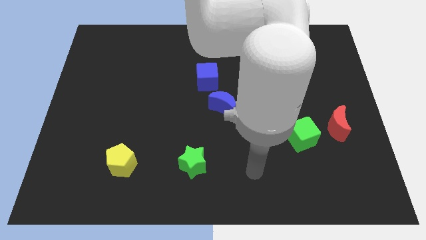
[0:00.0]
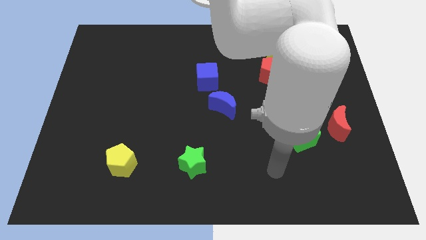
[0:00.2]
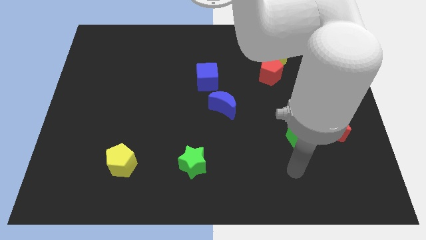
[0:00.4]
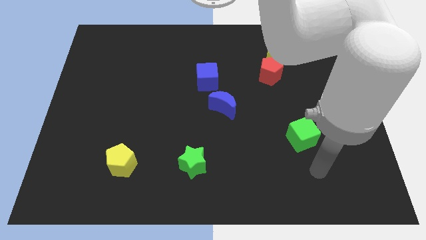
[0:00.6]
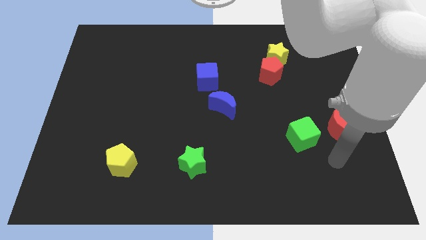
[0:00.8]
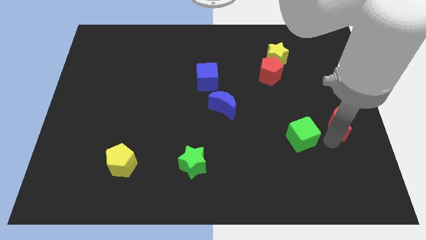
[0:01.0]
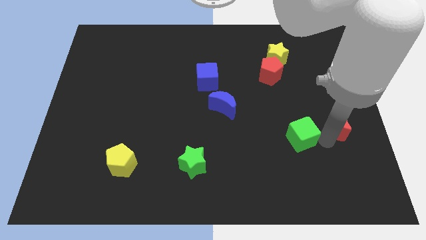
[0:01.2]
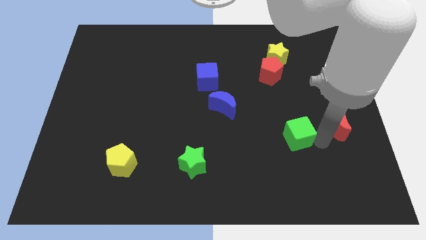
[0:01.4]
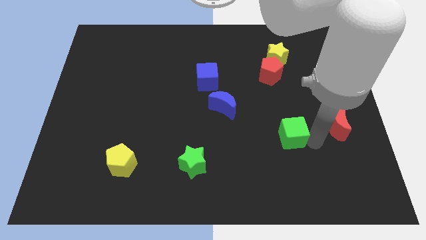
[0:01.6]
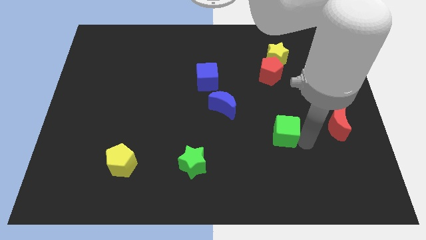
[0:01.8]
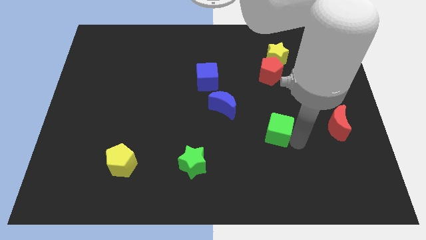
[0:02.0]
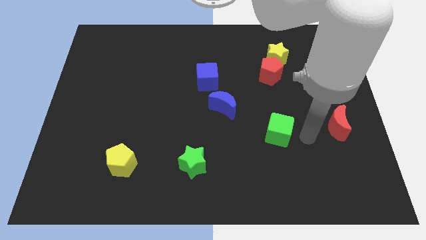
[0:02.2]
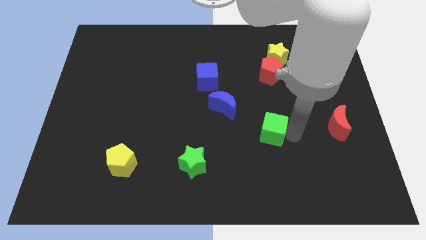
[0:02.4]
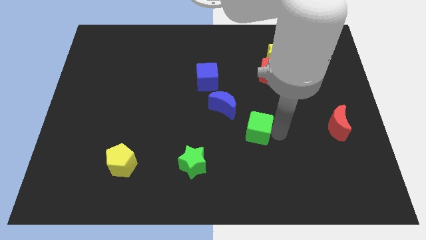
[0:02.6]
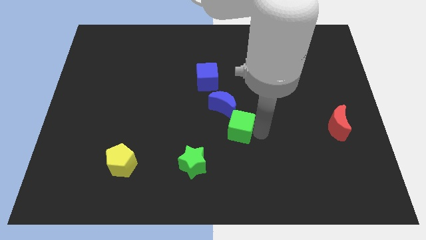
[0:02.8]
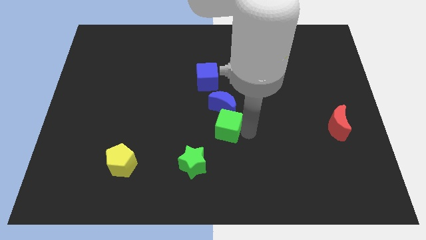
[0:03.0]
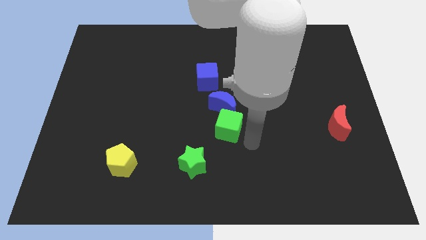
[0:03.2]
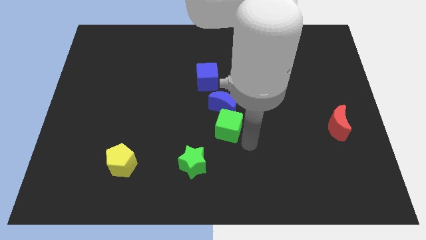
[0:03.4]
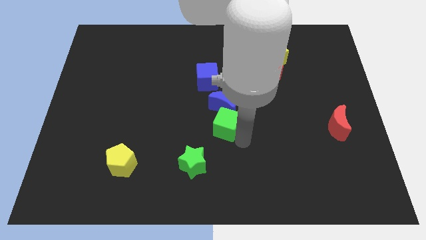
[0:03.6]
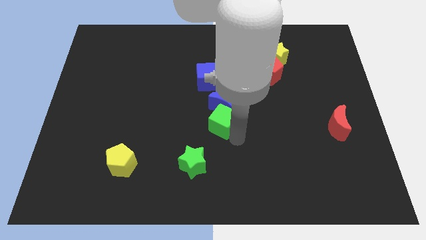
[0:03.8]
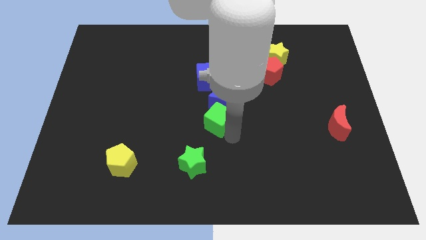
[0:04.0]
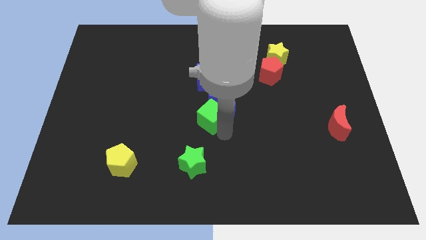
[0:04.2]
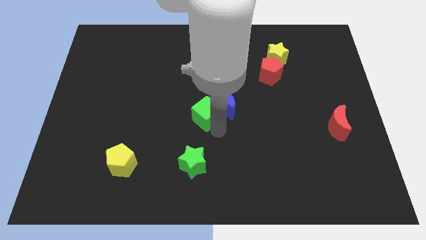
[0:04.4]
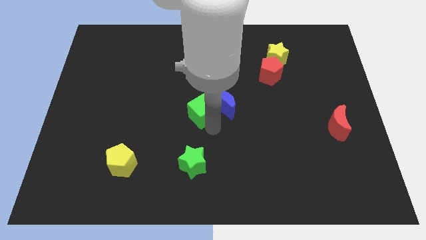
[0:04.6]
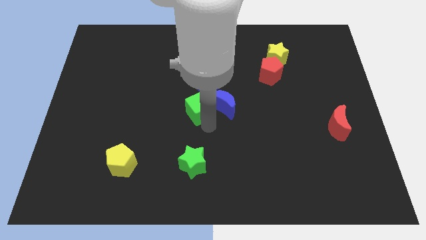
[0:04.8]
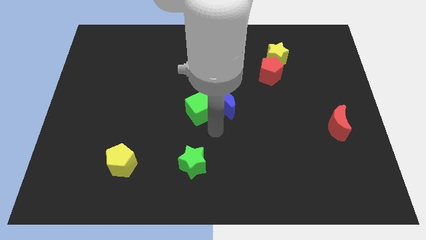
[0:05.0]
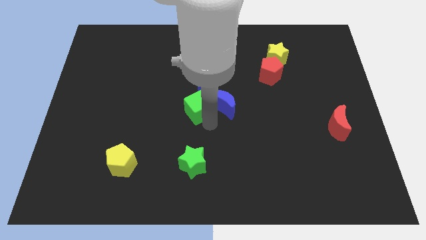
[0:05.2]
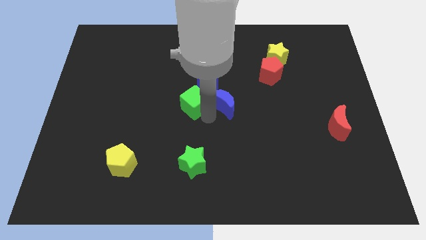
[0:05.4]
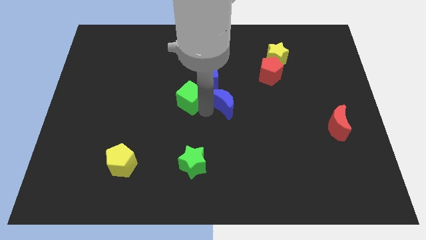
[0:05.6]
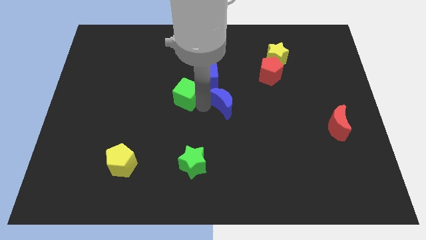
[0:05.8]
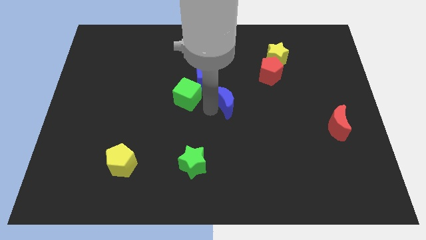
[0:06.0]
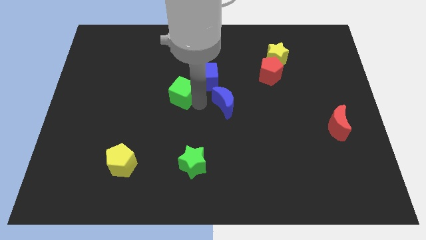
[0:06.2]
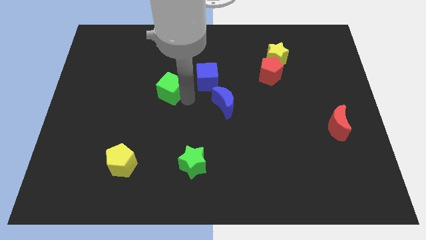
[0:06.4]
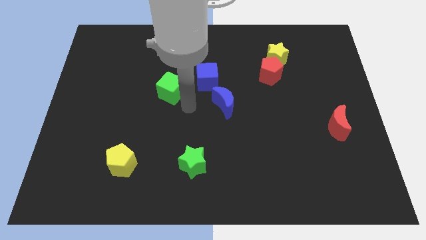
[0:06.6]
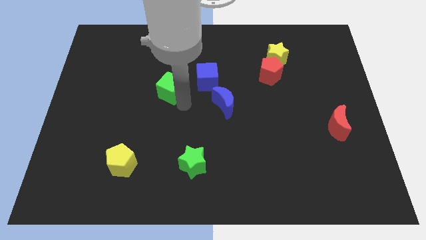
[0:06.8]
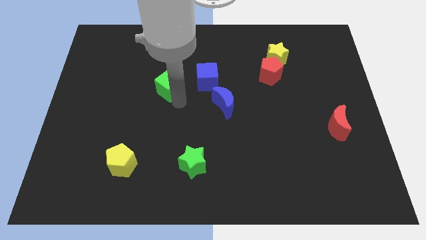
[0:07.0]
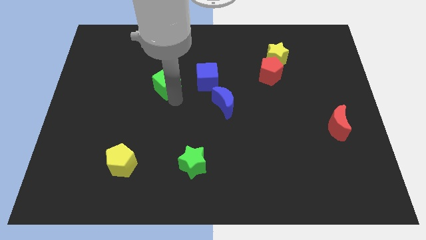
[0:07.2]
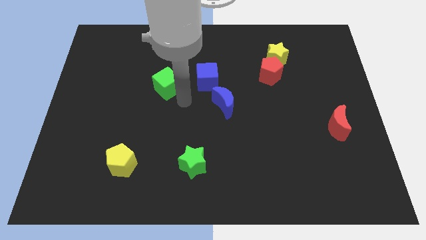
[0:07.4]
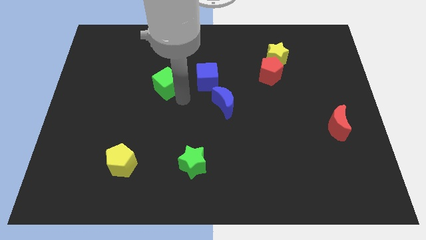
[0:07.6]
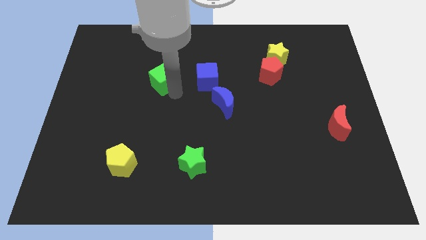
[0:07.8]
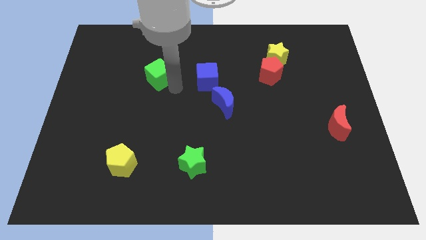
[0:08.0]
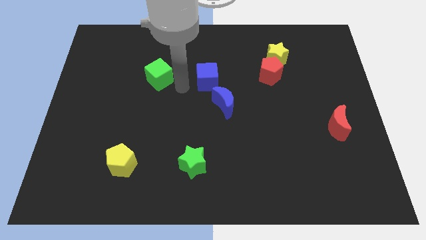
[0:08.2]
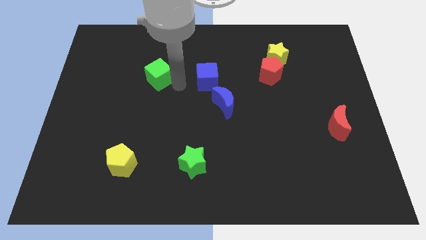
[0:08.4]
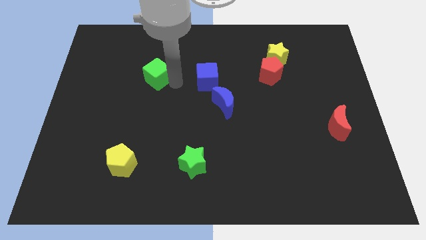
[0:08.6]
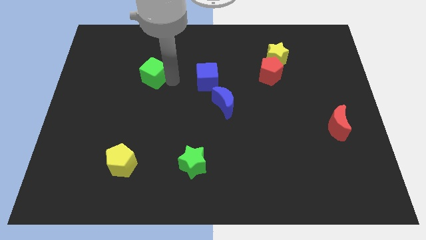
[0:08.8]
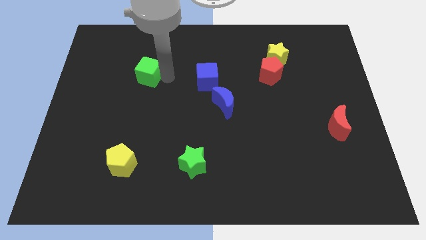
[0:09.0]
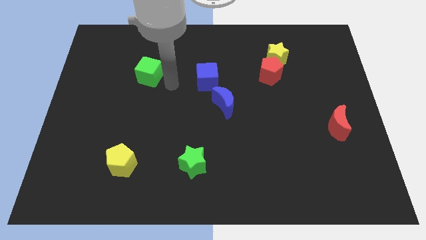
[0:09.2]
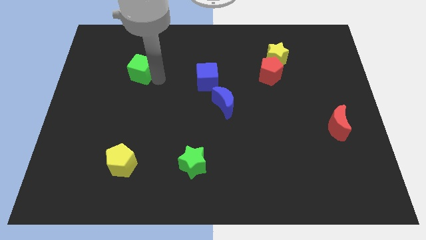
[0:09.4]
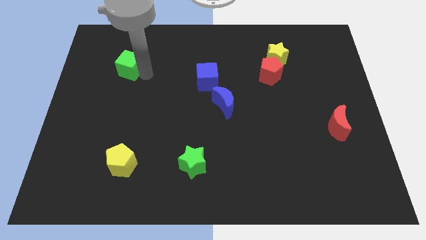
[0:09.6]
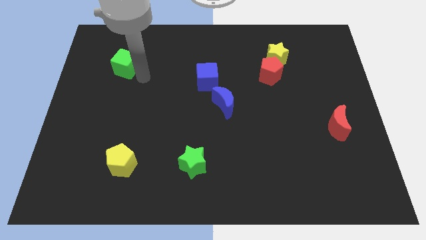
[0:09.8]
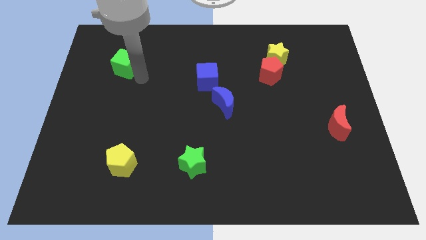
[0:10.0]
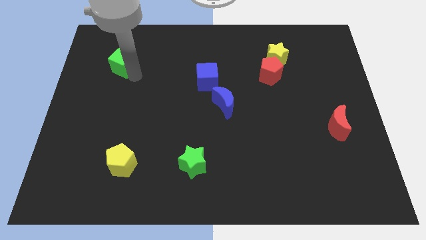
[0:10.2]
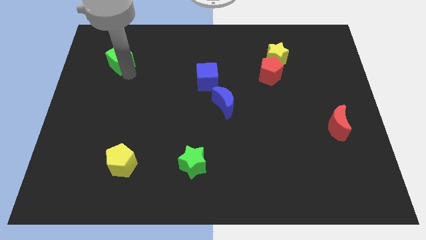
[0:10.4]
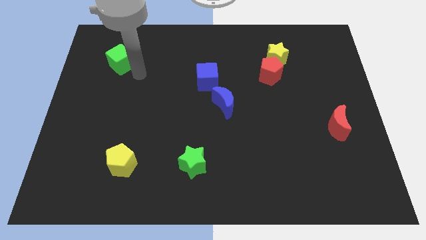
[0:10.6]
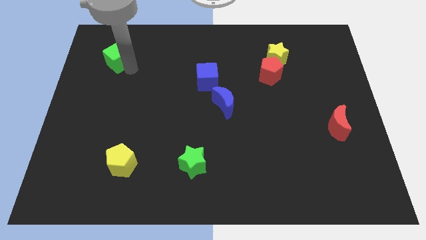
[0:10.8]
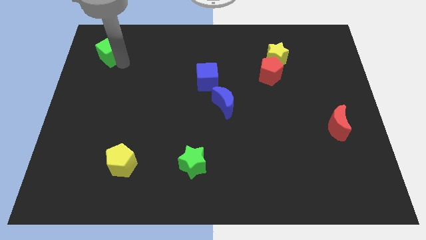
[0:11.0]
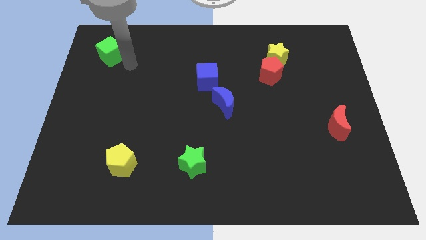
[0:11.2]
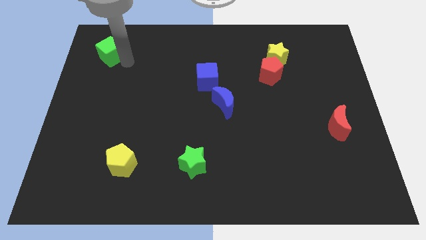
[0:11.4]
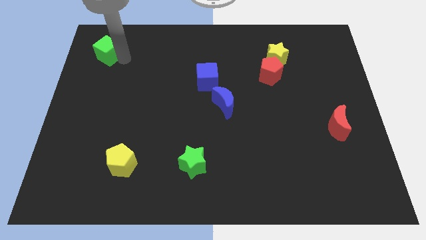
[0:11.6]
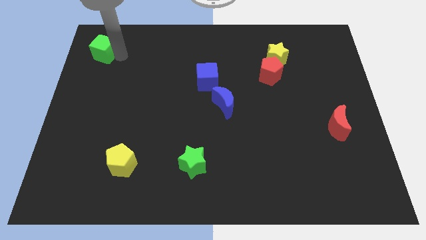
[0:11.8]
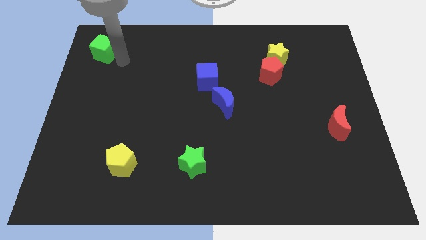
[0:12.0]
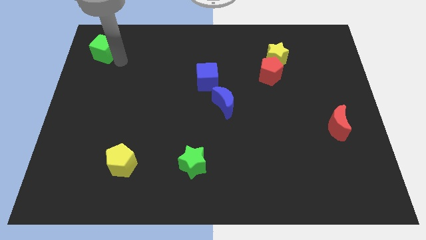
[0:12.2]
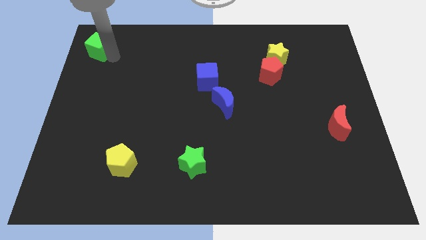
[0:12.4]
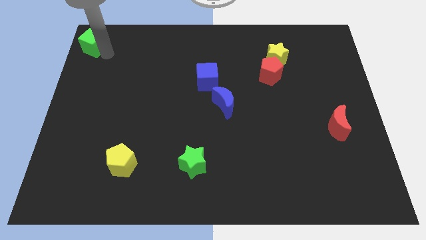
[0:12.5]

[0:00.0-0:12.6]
push the green cube to the top left corner
